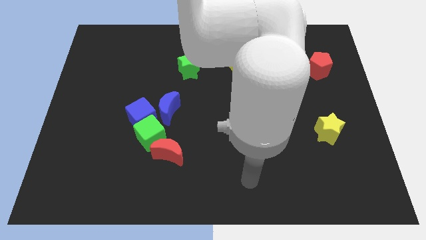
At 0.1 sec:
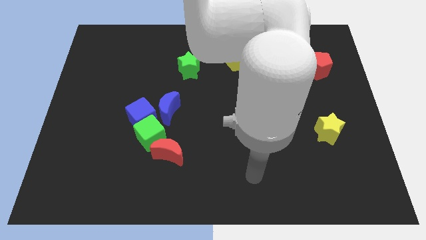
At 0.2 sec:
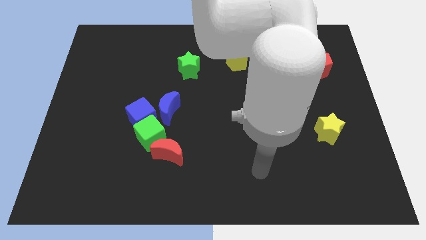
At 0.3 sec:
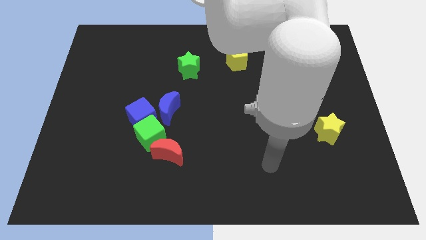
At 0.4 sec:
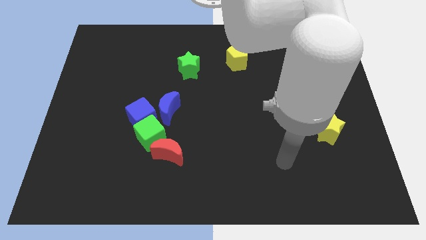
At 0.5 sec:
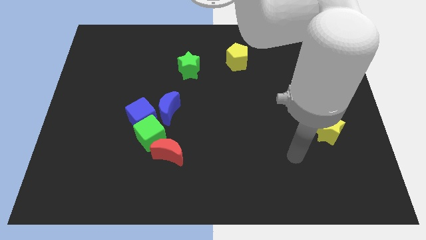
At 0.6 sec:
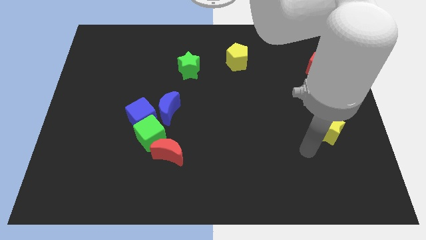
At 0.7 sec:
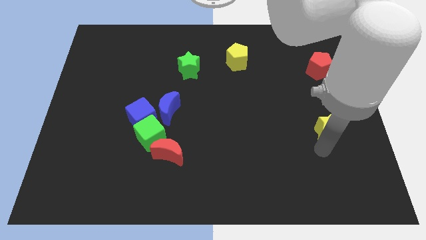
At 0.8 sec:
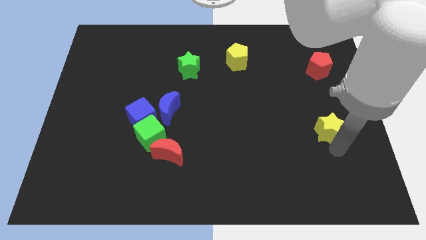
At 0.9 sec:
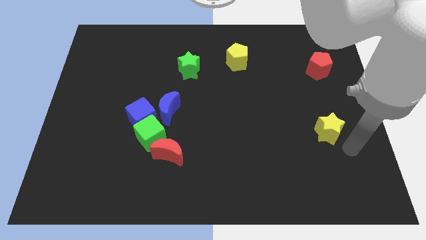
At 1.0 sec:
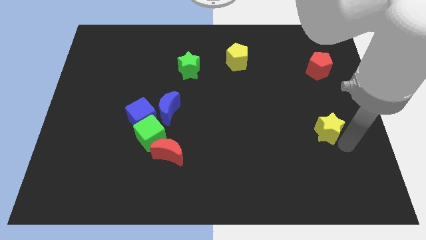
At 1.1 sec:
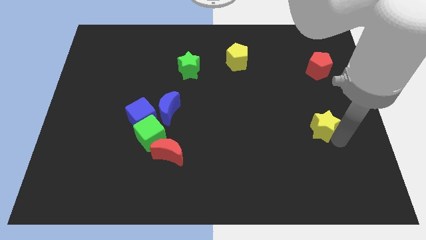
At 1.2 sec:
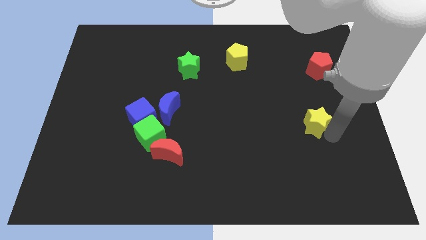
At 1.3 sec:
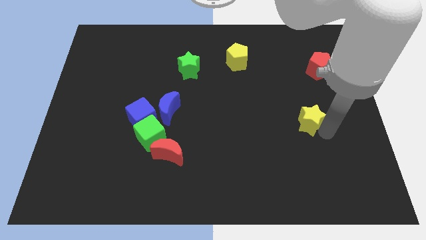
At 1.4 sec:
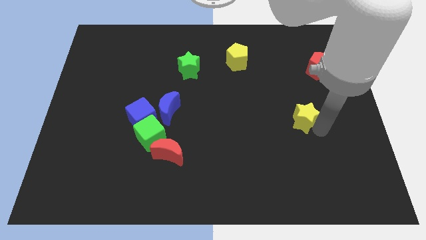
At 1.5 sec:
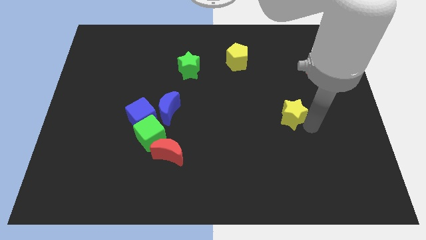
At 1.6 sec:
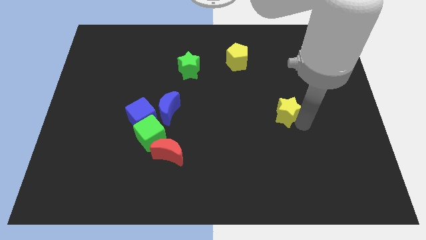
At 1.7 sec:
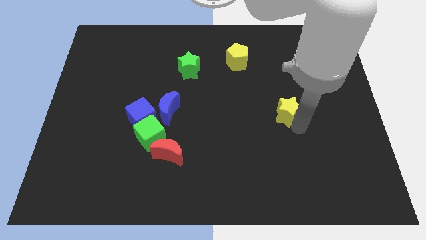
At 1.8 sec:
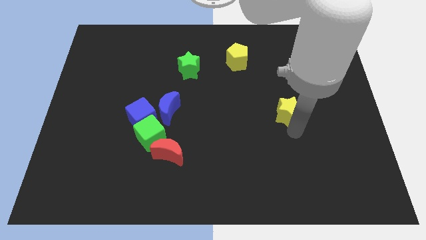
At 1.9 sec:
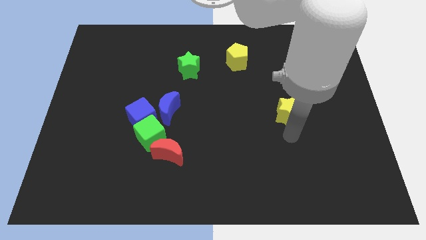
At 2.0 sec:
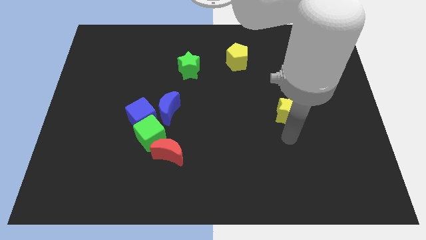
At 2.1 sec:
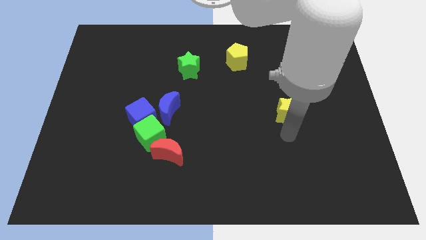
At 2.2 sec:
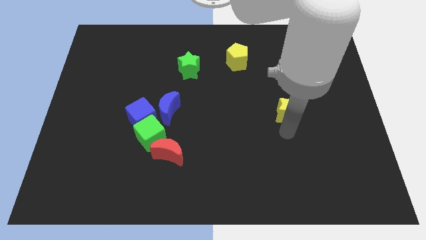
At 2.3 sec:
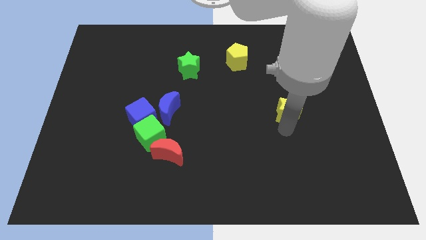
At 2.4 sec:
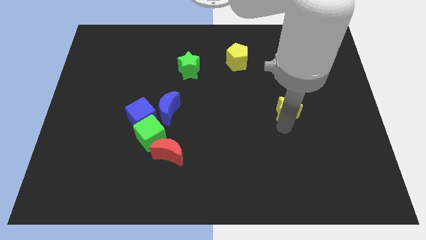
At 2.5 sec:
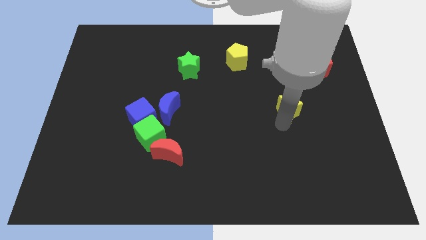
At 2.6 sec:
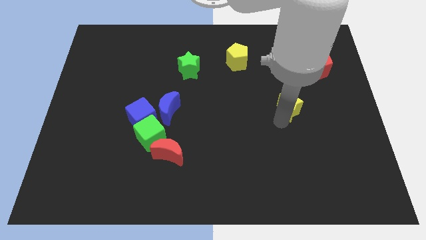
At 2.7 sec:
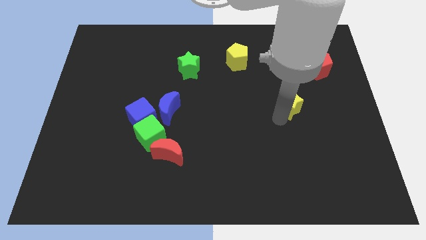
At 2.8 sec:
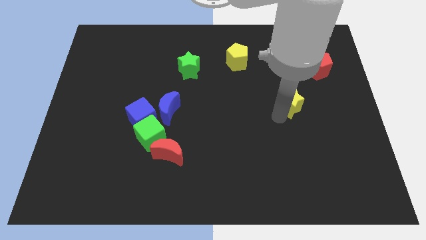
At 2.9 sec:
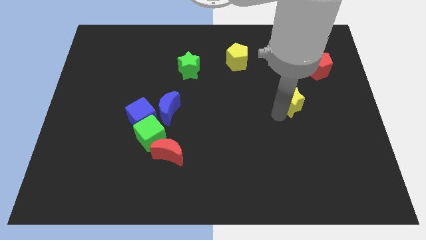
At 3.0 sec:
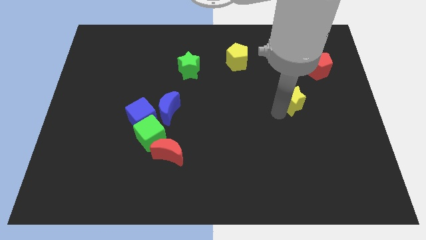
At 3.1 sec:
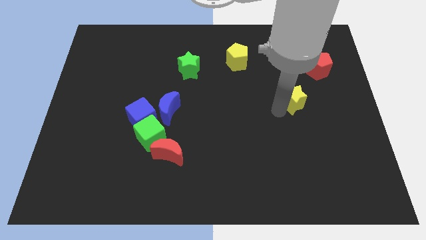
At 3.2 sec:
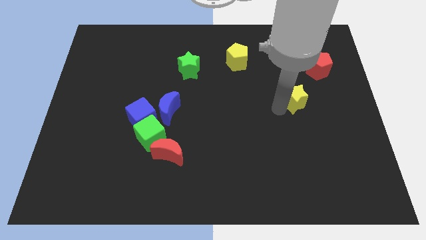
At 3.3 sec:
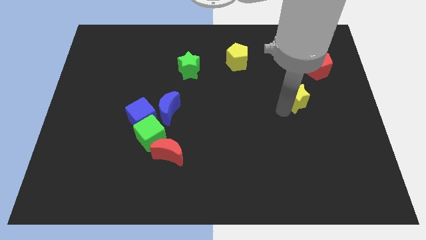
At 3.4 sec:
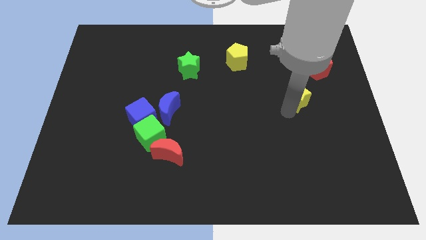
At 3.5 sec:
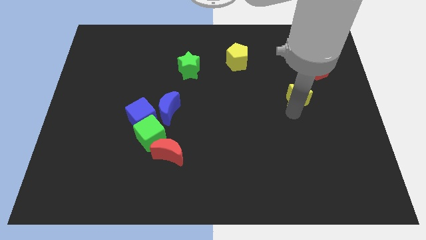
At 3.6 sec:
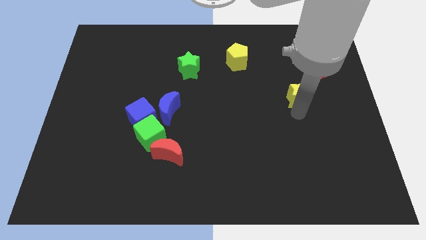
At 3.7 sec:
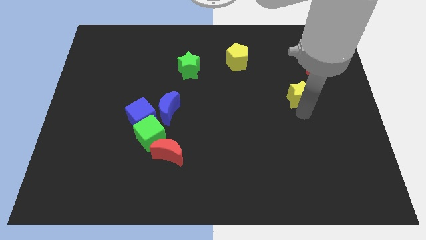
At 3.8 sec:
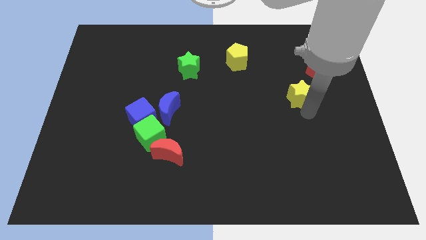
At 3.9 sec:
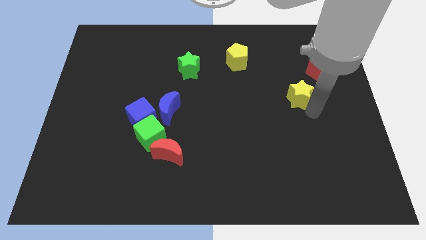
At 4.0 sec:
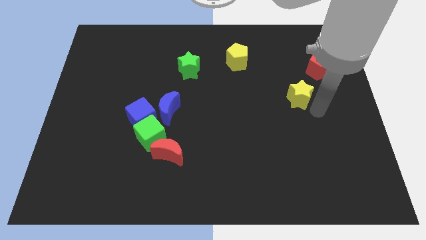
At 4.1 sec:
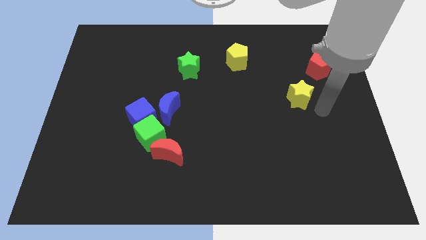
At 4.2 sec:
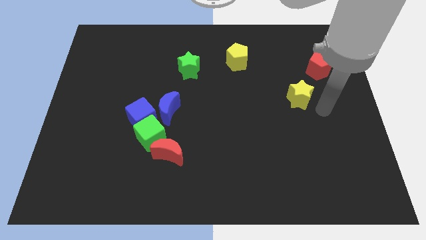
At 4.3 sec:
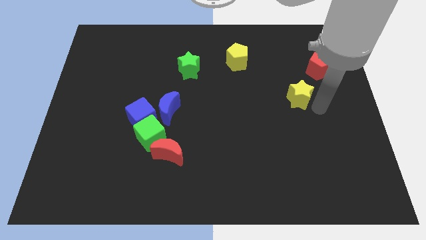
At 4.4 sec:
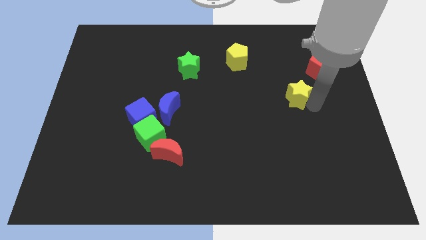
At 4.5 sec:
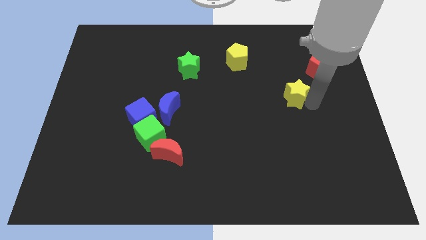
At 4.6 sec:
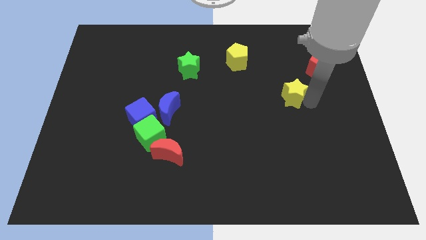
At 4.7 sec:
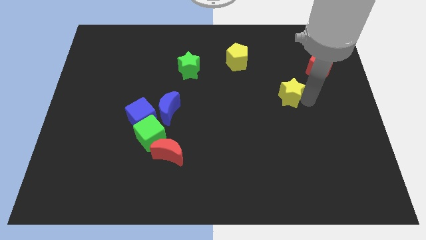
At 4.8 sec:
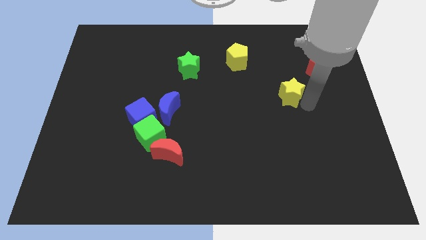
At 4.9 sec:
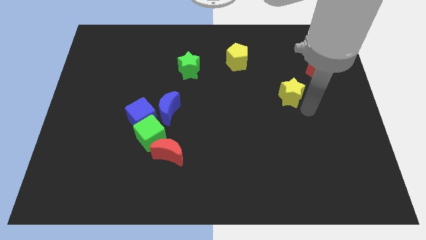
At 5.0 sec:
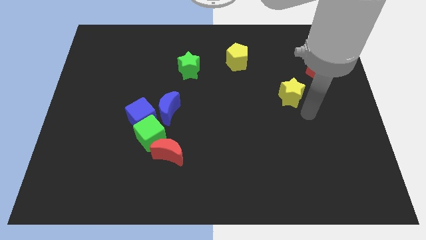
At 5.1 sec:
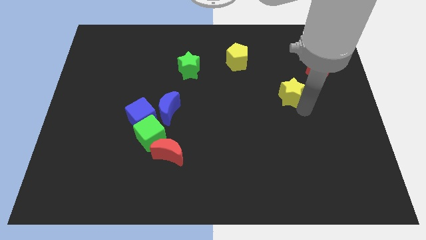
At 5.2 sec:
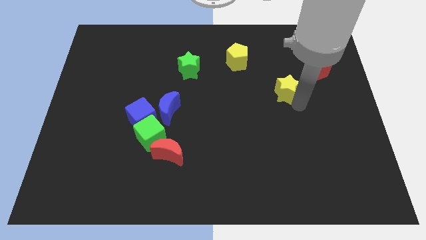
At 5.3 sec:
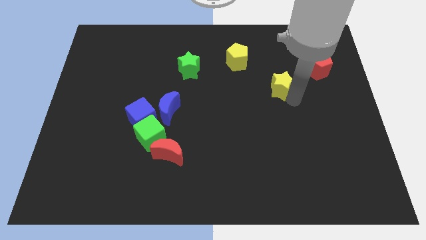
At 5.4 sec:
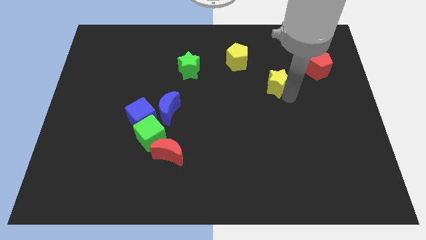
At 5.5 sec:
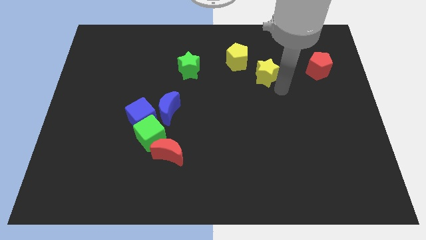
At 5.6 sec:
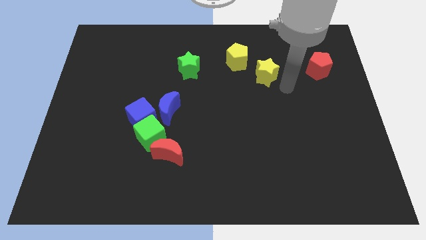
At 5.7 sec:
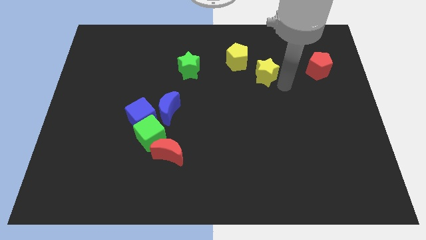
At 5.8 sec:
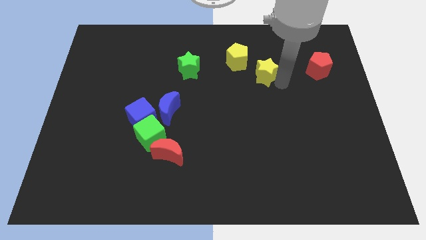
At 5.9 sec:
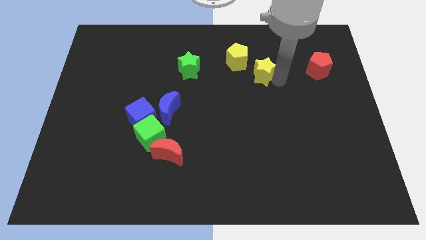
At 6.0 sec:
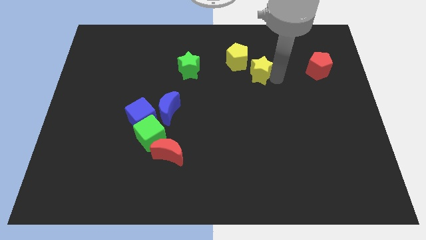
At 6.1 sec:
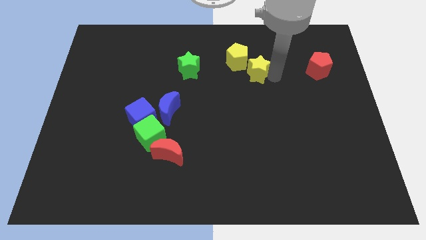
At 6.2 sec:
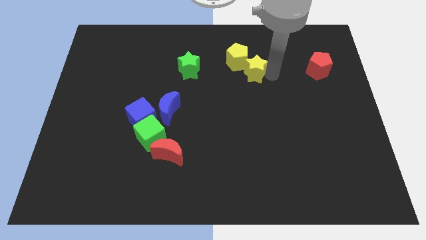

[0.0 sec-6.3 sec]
move the yellow star towards the yellow pentagon

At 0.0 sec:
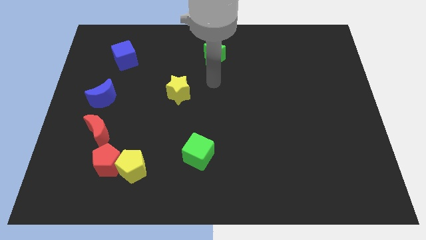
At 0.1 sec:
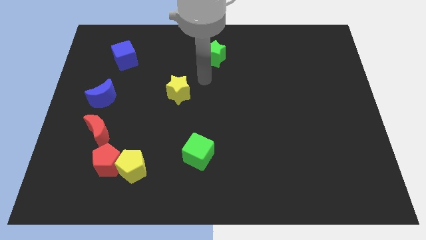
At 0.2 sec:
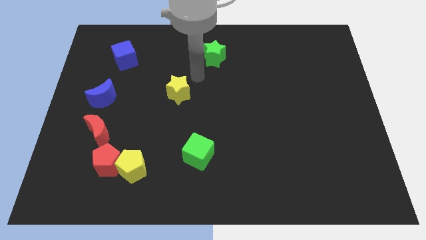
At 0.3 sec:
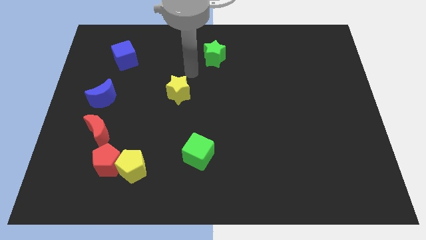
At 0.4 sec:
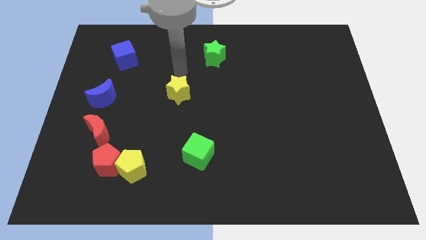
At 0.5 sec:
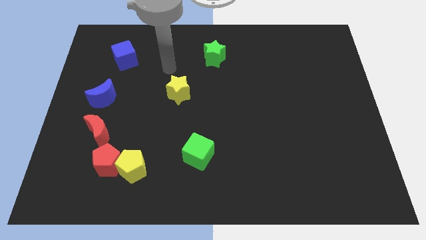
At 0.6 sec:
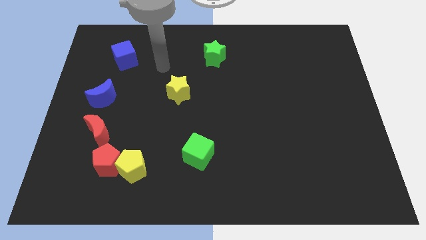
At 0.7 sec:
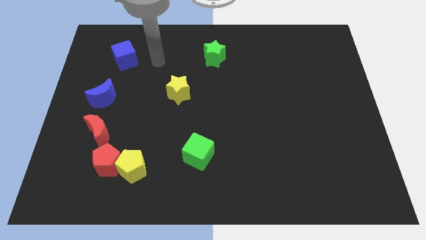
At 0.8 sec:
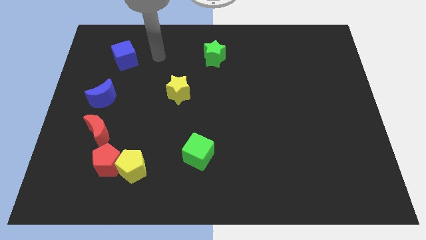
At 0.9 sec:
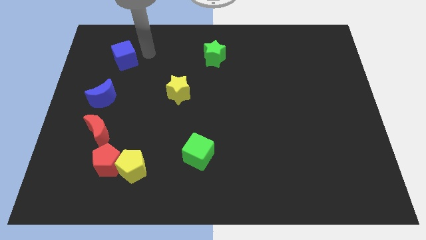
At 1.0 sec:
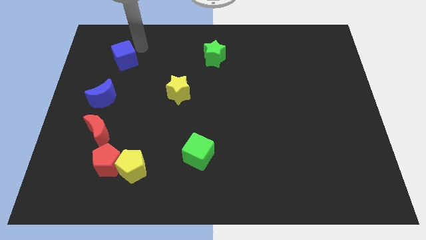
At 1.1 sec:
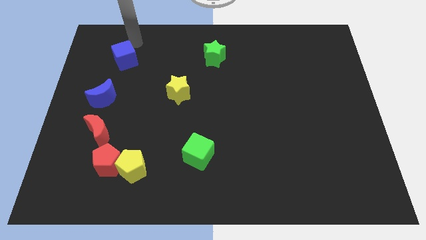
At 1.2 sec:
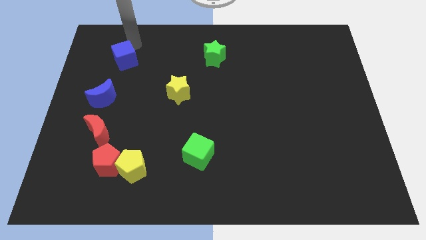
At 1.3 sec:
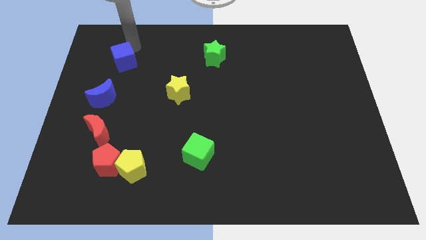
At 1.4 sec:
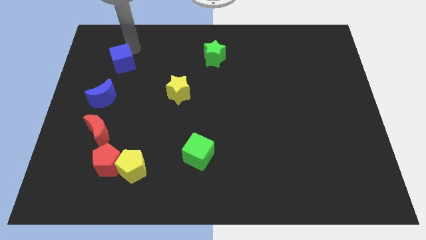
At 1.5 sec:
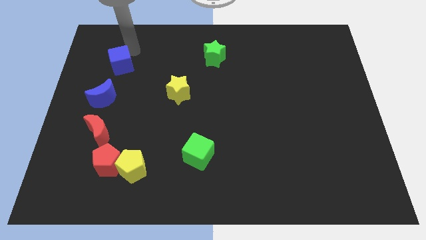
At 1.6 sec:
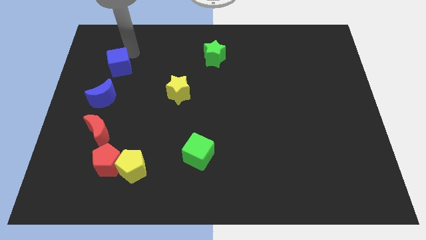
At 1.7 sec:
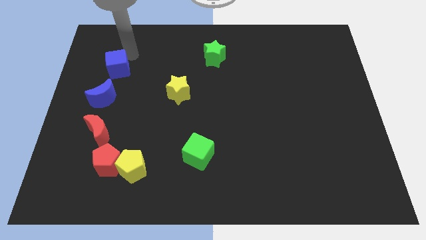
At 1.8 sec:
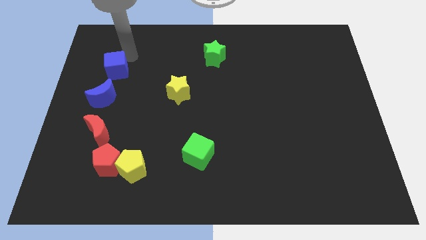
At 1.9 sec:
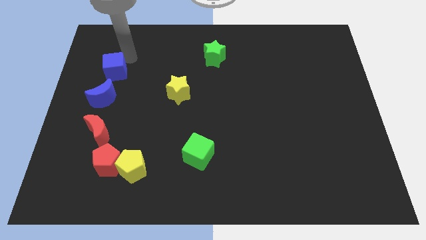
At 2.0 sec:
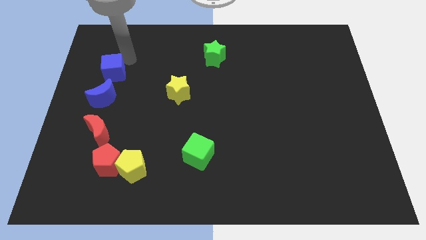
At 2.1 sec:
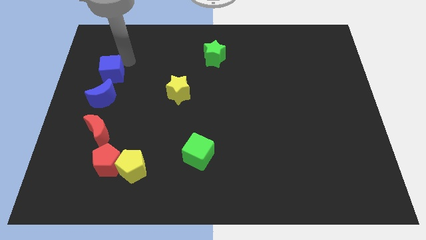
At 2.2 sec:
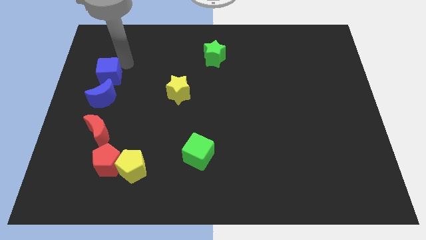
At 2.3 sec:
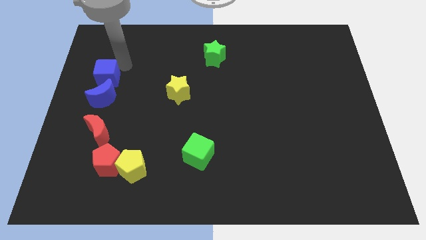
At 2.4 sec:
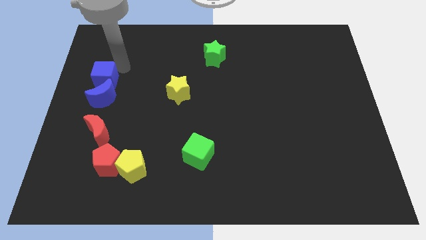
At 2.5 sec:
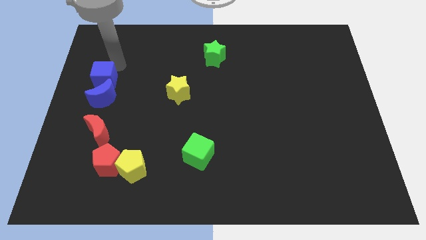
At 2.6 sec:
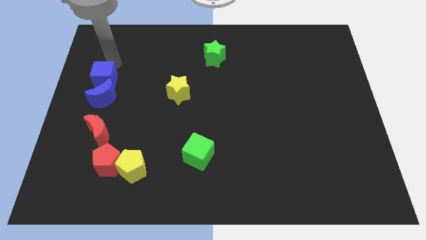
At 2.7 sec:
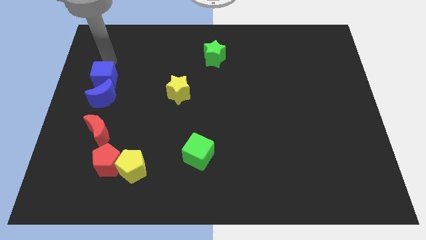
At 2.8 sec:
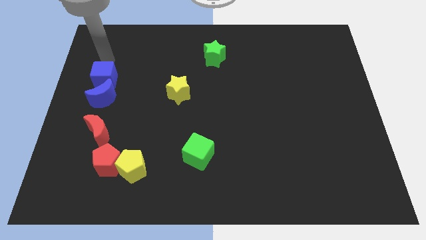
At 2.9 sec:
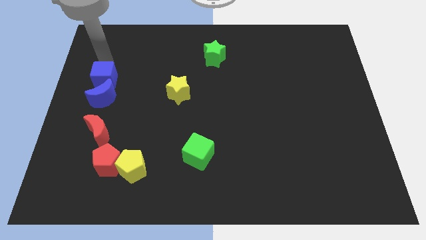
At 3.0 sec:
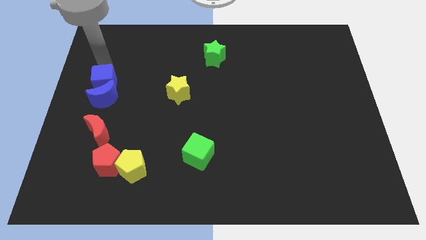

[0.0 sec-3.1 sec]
move the blue cube close to the blue moon
